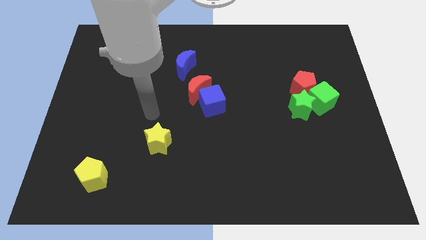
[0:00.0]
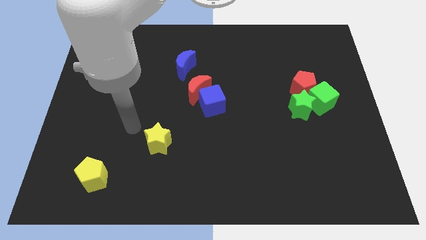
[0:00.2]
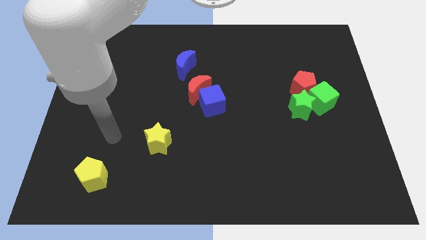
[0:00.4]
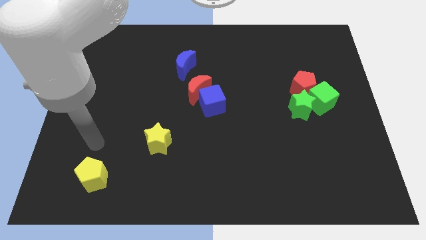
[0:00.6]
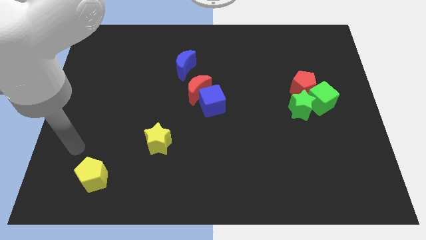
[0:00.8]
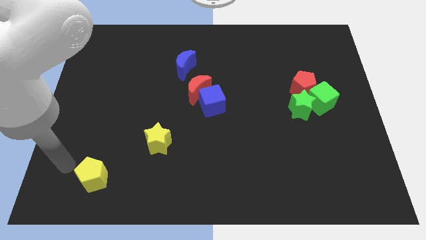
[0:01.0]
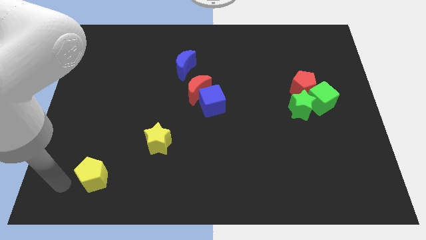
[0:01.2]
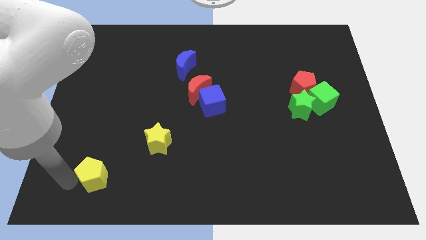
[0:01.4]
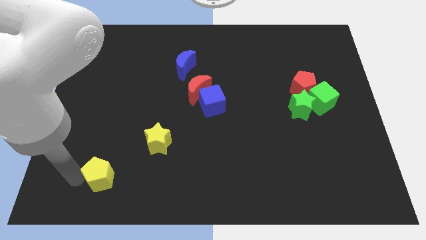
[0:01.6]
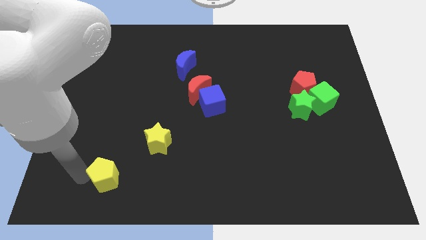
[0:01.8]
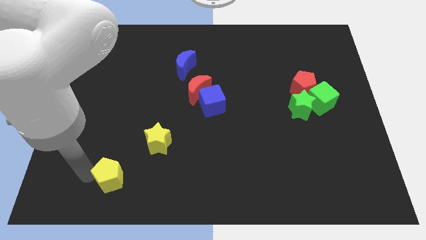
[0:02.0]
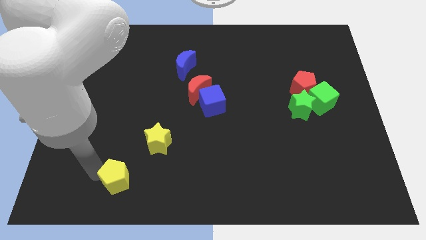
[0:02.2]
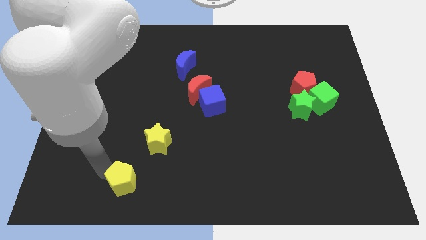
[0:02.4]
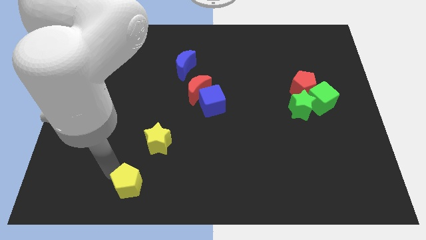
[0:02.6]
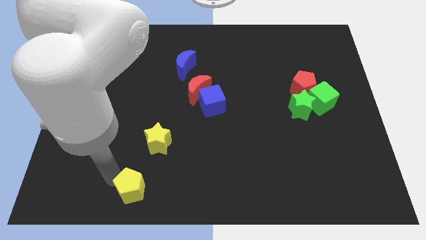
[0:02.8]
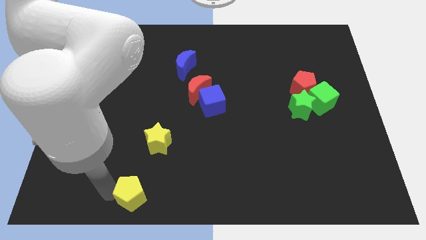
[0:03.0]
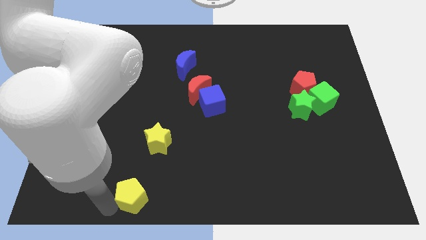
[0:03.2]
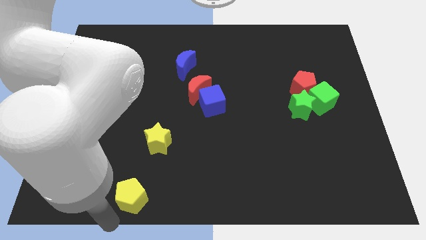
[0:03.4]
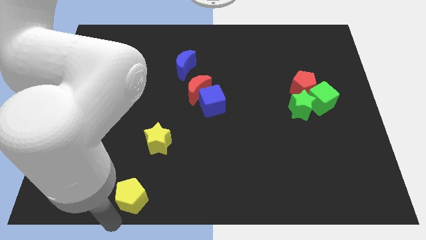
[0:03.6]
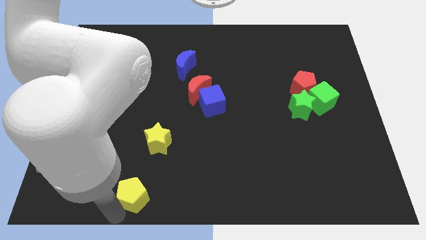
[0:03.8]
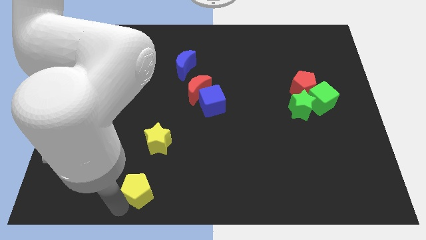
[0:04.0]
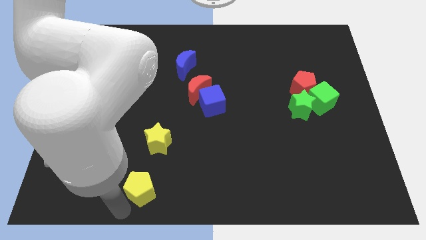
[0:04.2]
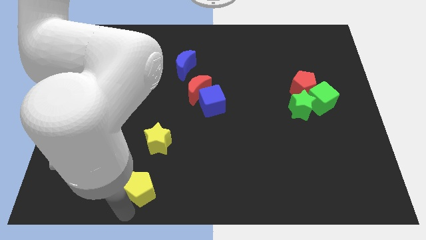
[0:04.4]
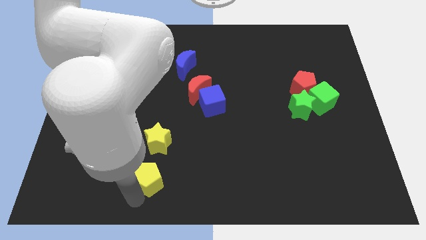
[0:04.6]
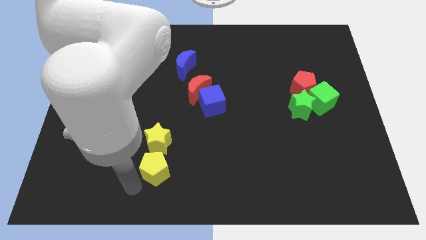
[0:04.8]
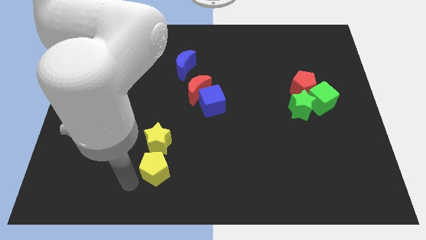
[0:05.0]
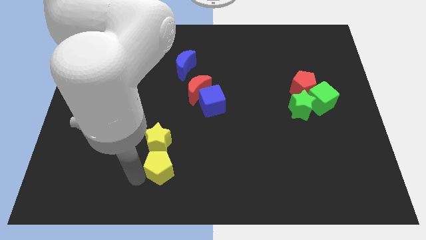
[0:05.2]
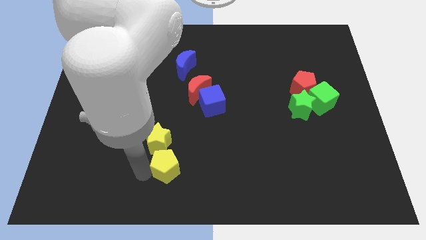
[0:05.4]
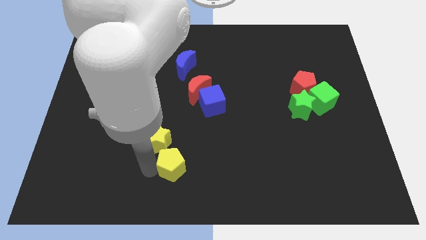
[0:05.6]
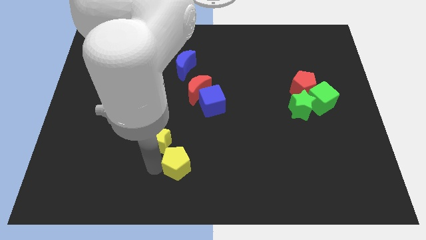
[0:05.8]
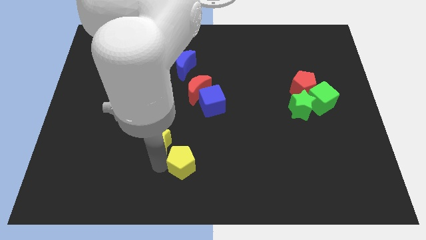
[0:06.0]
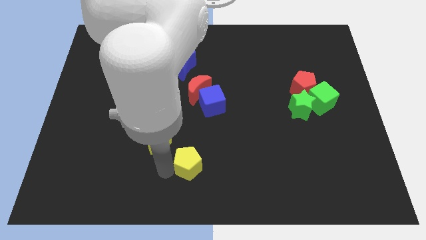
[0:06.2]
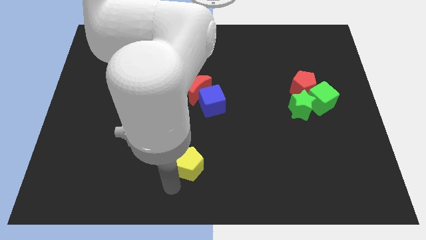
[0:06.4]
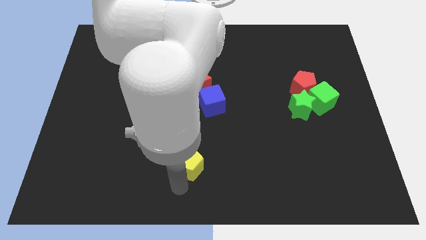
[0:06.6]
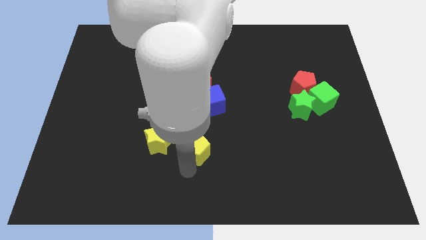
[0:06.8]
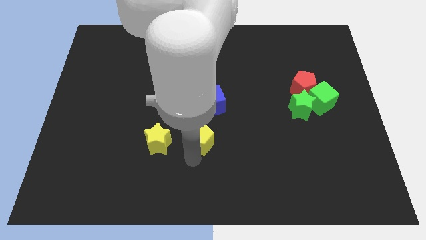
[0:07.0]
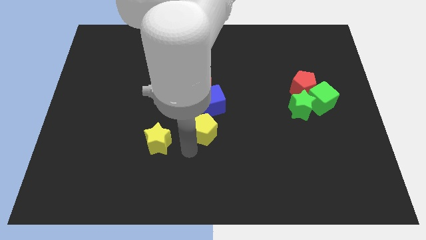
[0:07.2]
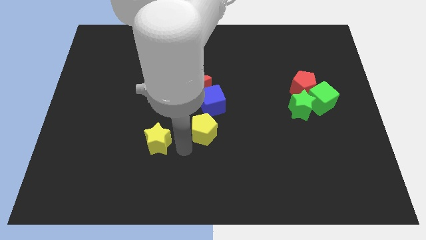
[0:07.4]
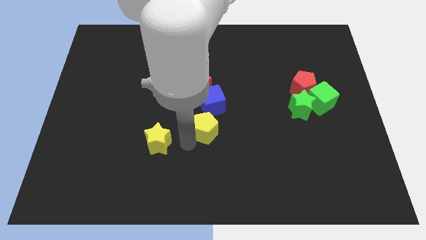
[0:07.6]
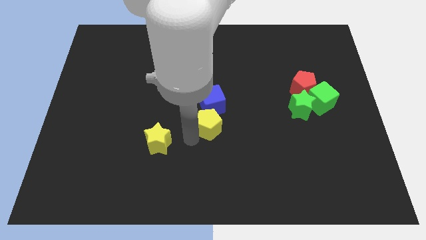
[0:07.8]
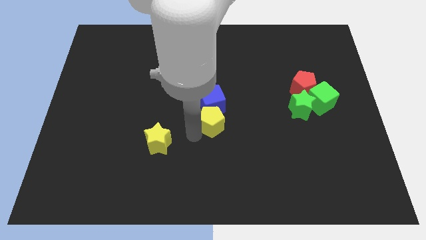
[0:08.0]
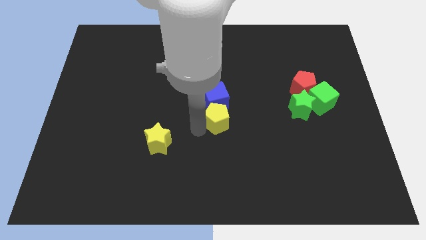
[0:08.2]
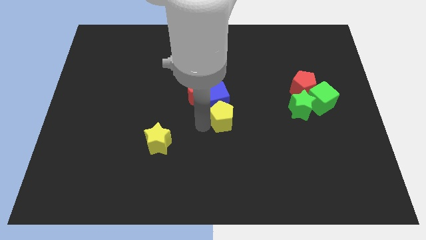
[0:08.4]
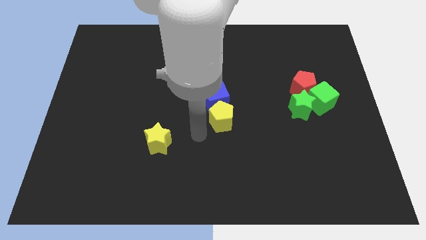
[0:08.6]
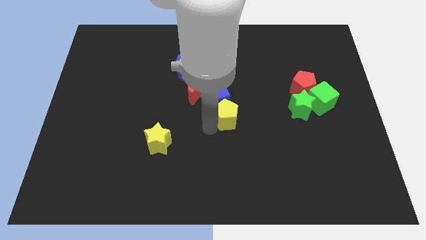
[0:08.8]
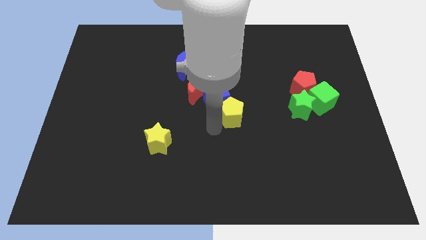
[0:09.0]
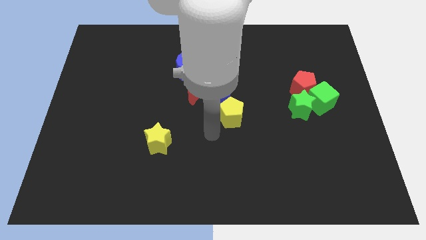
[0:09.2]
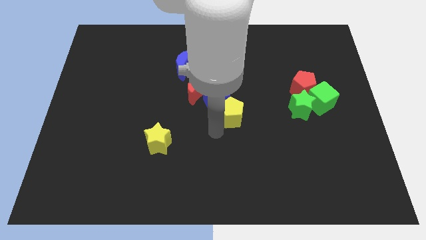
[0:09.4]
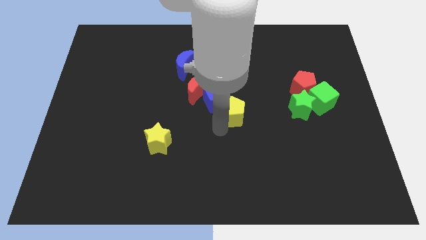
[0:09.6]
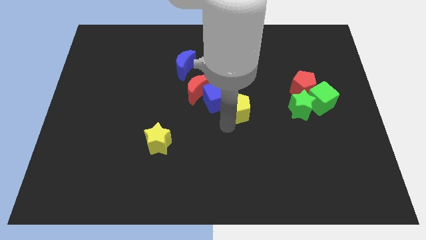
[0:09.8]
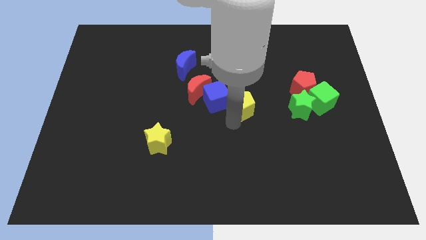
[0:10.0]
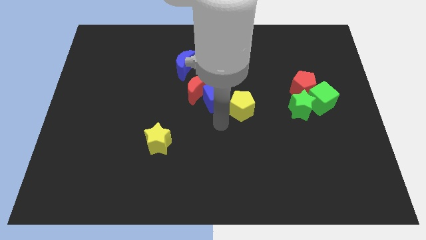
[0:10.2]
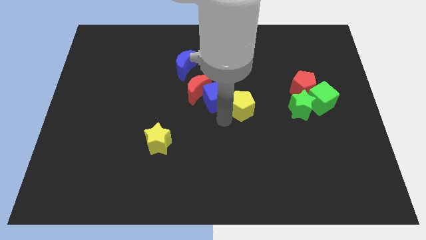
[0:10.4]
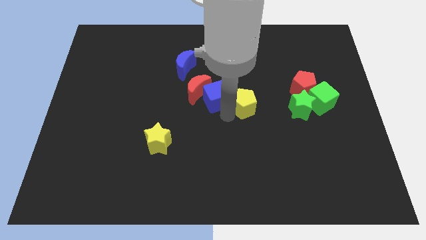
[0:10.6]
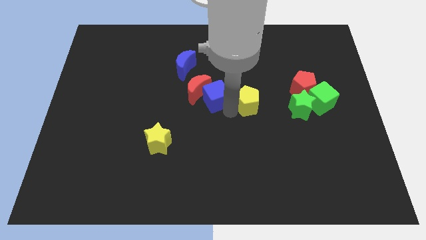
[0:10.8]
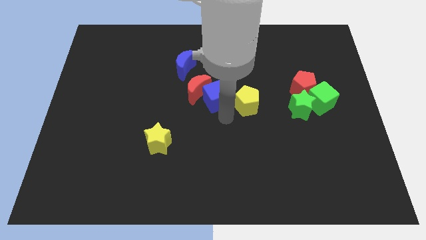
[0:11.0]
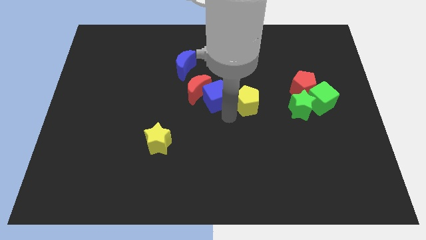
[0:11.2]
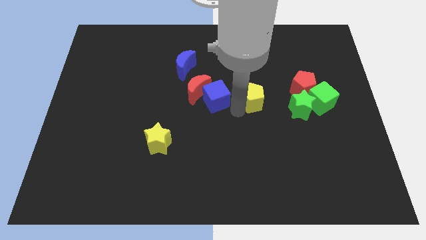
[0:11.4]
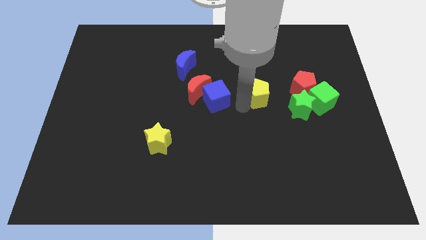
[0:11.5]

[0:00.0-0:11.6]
slide the yellow pentagon diagonally up and to the left of the green star
